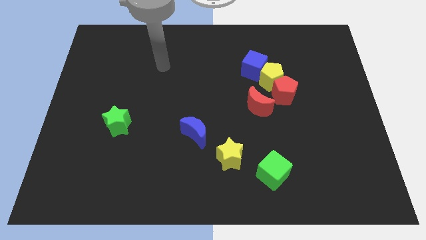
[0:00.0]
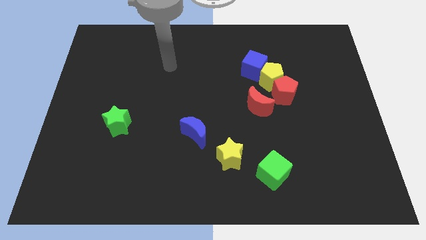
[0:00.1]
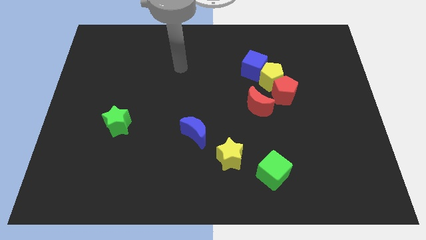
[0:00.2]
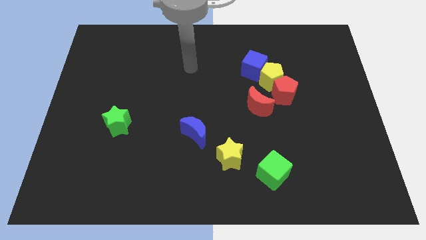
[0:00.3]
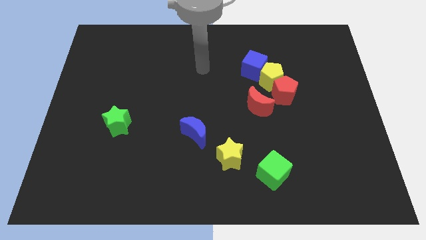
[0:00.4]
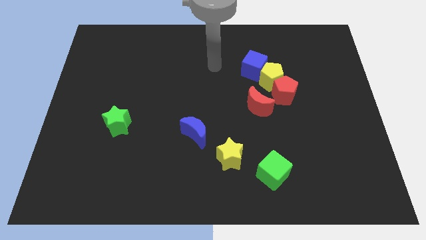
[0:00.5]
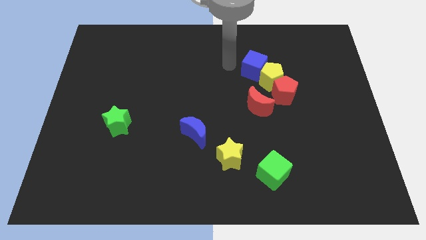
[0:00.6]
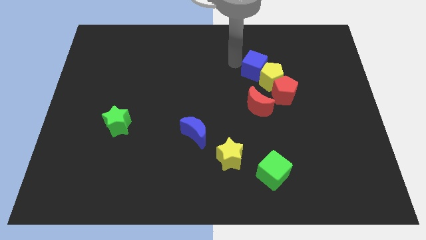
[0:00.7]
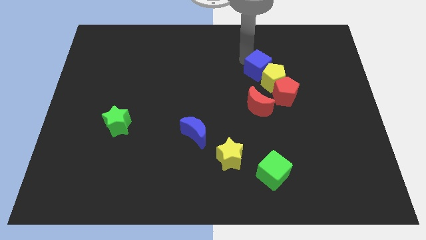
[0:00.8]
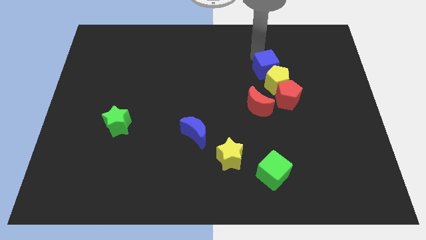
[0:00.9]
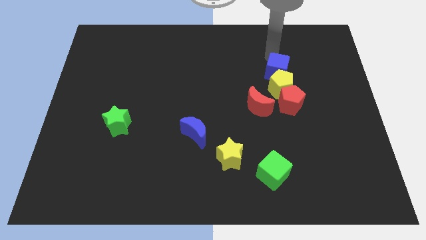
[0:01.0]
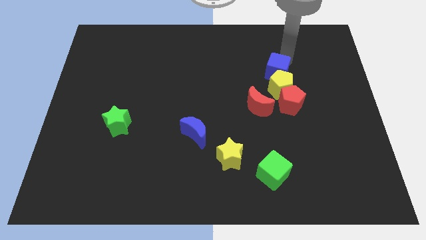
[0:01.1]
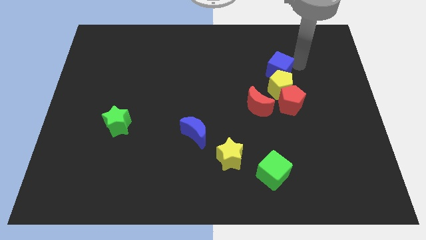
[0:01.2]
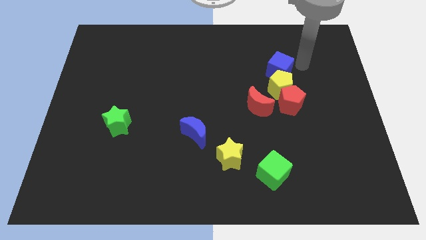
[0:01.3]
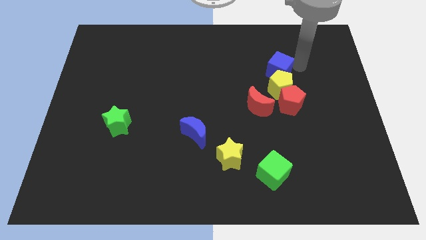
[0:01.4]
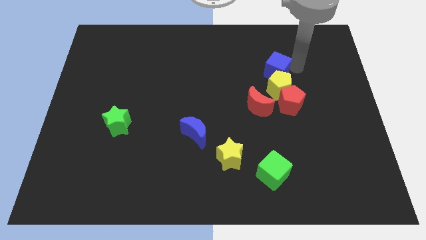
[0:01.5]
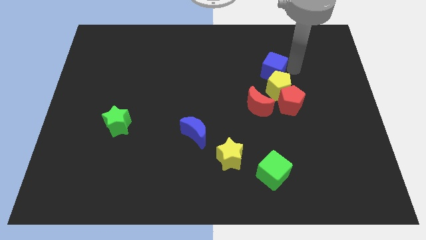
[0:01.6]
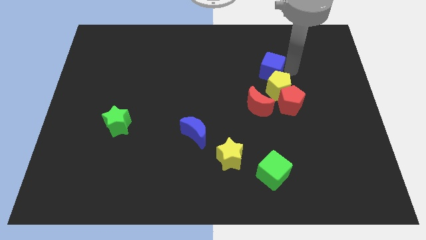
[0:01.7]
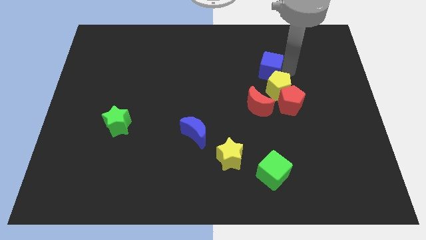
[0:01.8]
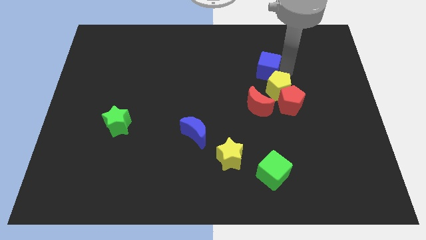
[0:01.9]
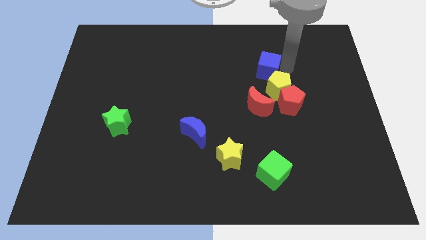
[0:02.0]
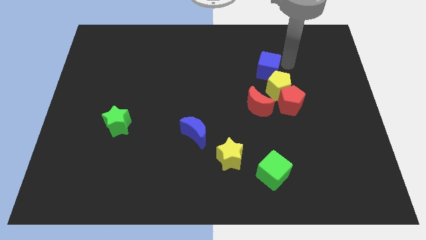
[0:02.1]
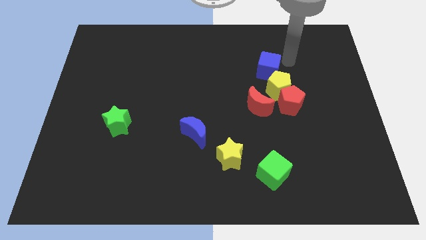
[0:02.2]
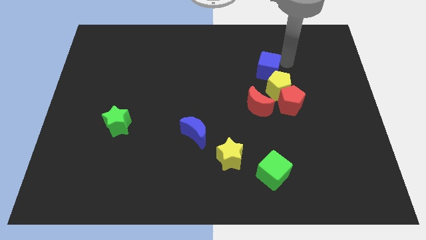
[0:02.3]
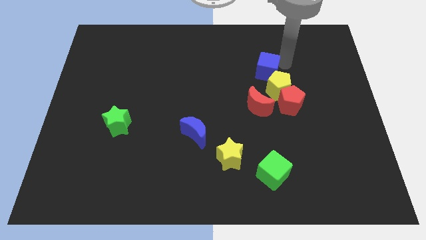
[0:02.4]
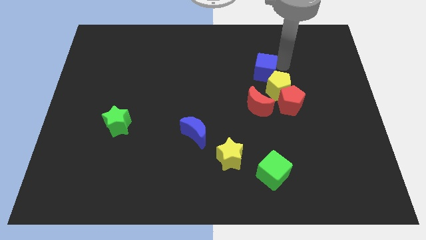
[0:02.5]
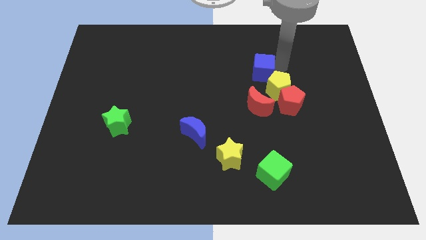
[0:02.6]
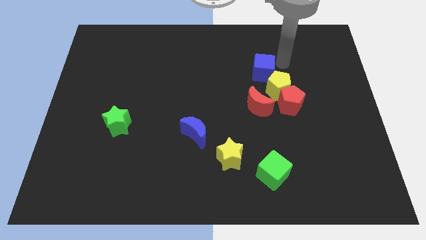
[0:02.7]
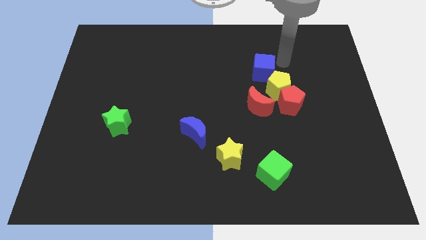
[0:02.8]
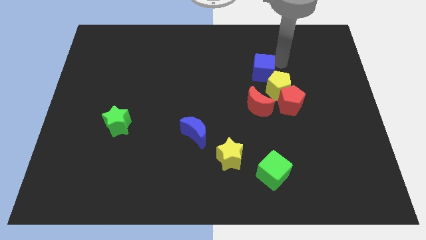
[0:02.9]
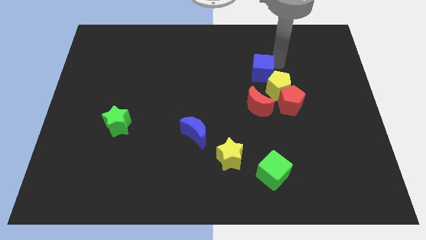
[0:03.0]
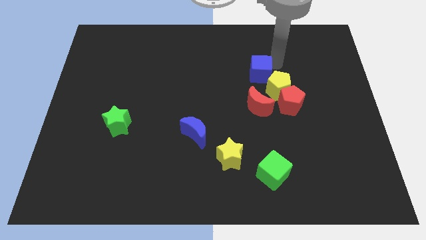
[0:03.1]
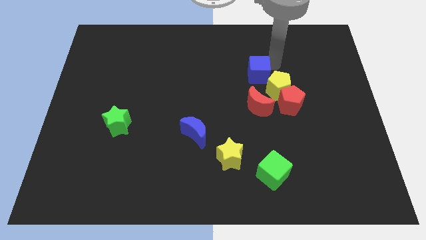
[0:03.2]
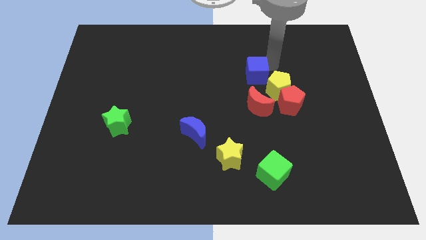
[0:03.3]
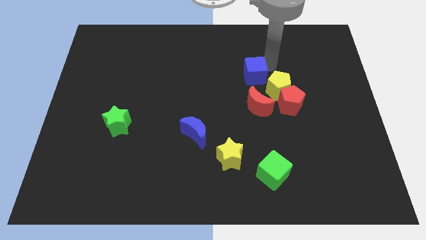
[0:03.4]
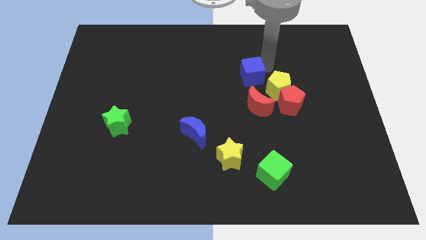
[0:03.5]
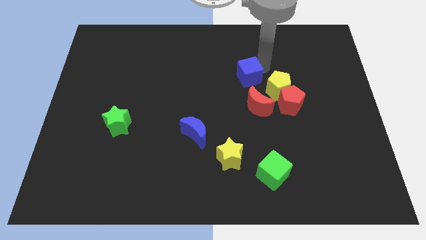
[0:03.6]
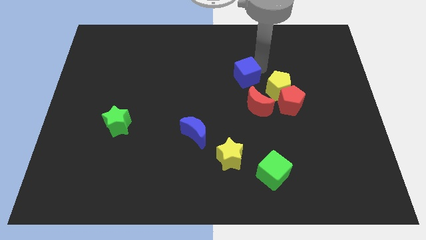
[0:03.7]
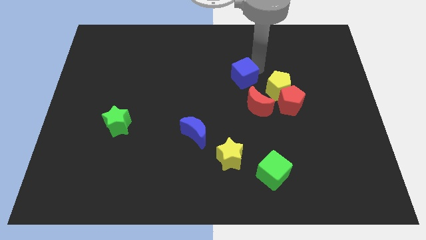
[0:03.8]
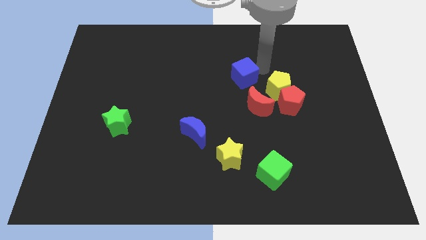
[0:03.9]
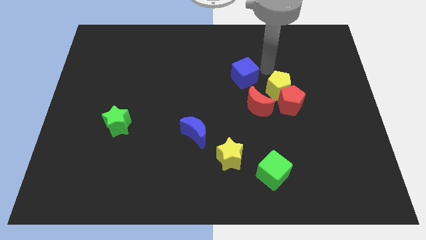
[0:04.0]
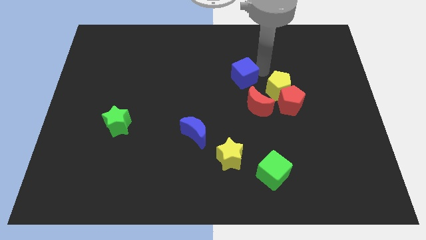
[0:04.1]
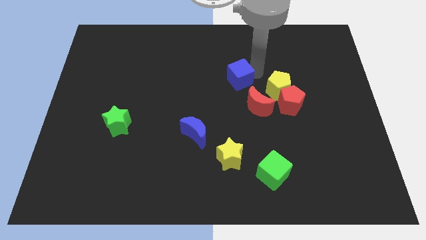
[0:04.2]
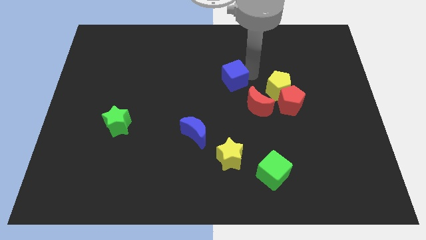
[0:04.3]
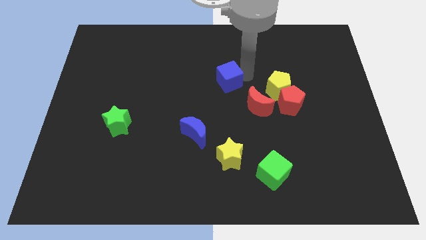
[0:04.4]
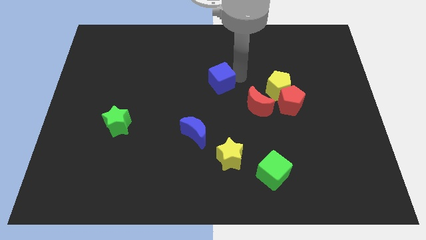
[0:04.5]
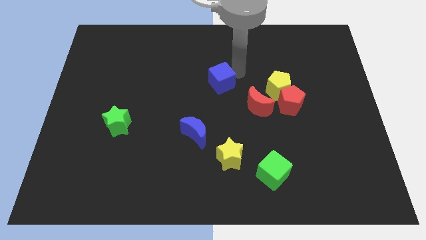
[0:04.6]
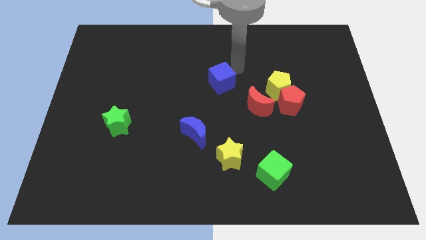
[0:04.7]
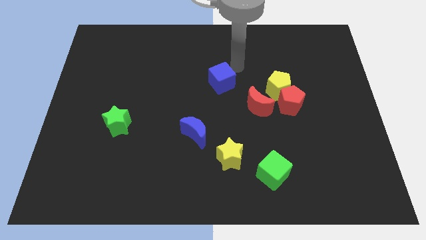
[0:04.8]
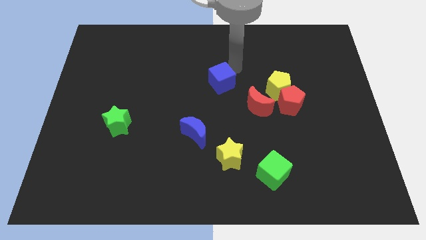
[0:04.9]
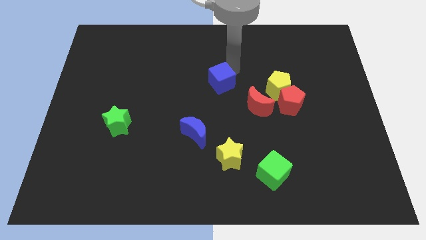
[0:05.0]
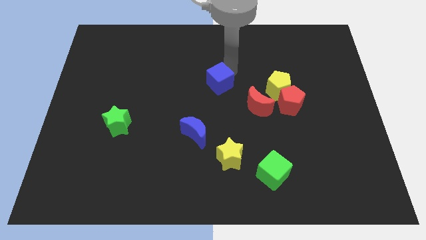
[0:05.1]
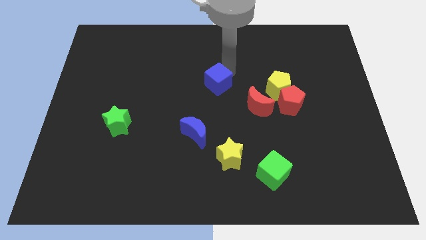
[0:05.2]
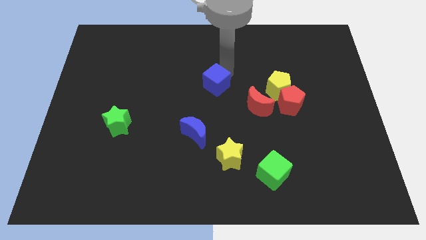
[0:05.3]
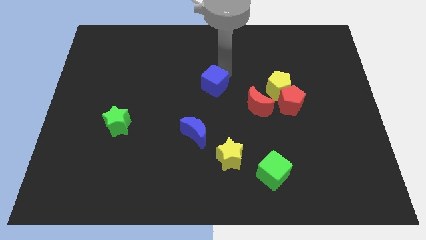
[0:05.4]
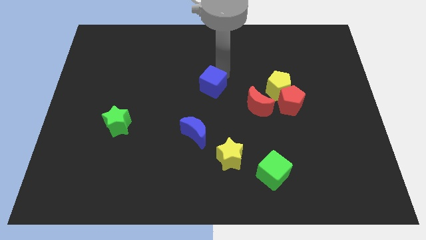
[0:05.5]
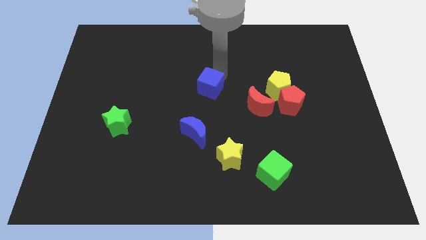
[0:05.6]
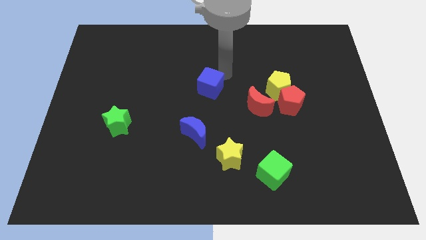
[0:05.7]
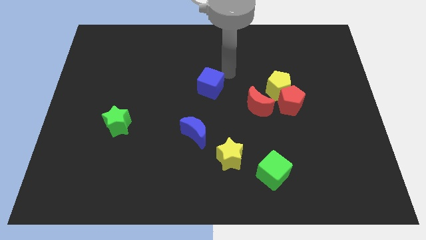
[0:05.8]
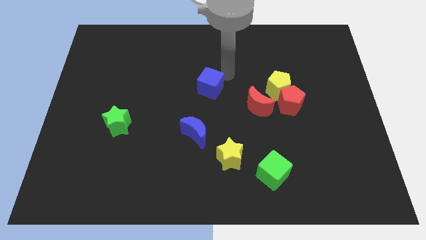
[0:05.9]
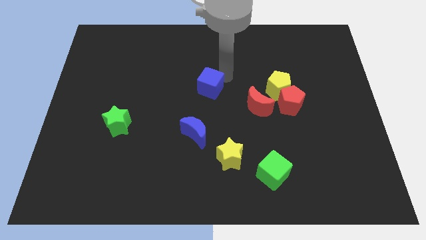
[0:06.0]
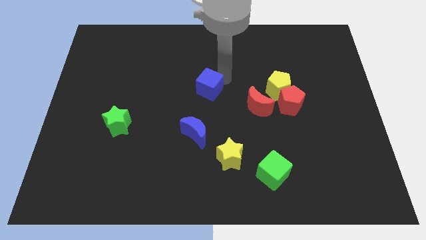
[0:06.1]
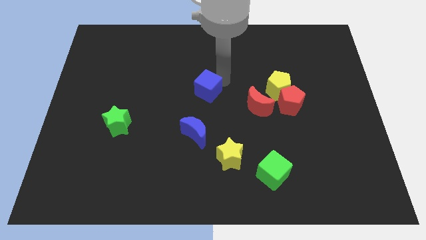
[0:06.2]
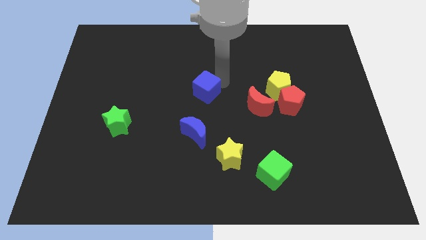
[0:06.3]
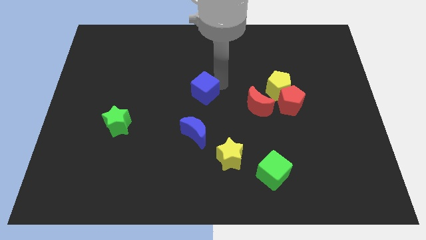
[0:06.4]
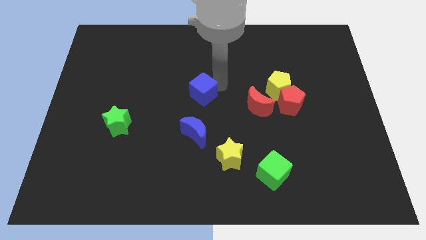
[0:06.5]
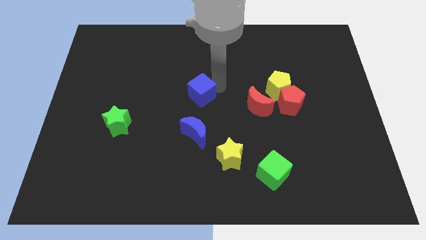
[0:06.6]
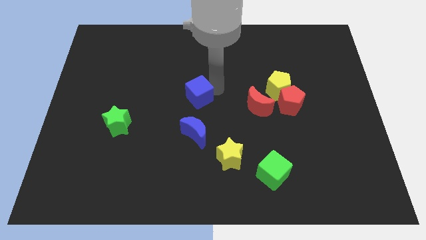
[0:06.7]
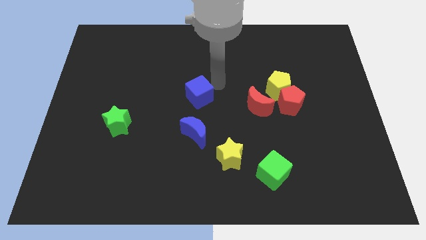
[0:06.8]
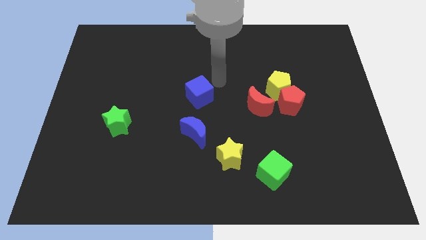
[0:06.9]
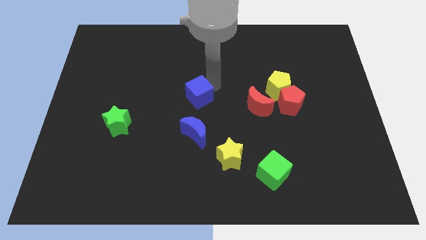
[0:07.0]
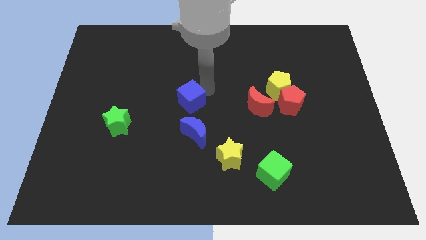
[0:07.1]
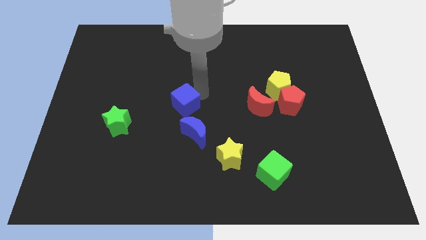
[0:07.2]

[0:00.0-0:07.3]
push the blue cube diagonally up and to the left of the blue moon
